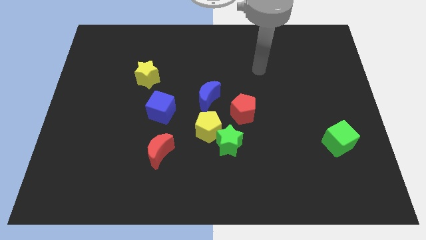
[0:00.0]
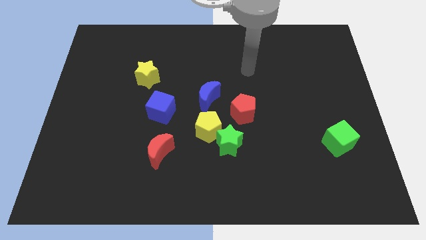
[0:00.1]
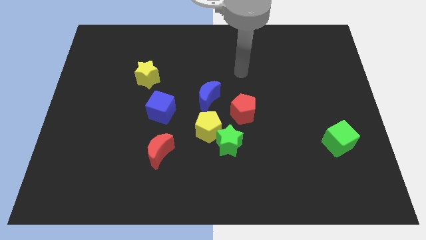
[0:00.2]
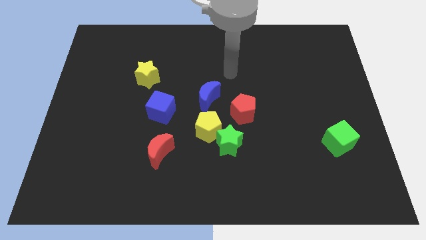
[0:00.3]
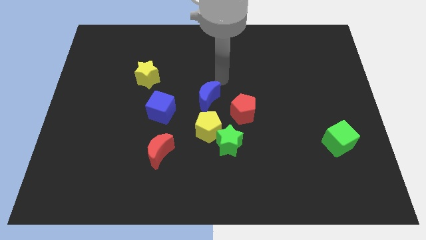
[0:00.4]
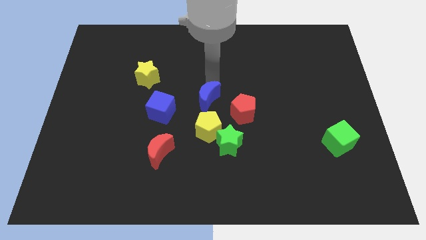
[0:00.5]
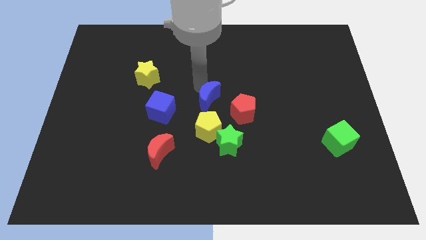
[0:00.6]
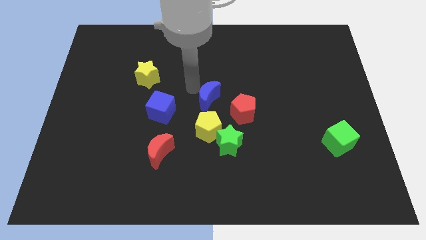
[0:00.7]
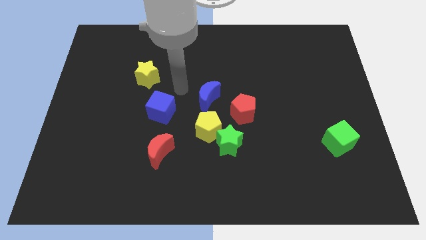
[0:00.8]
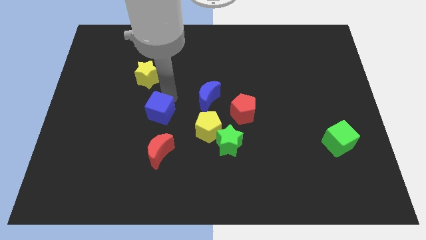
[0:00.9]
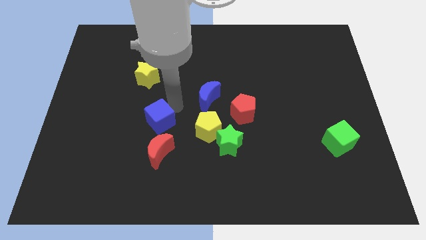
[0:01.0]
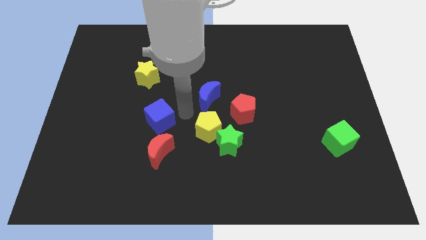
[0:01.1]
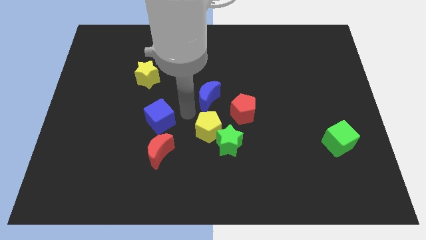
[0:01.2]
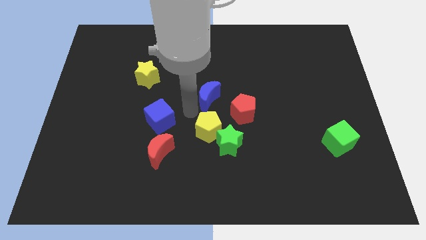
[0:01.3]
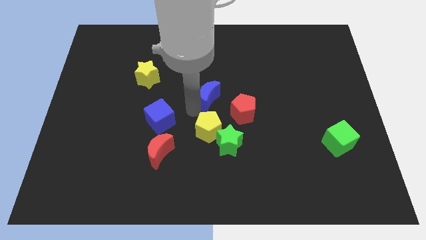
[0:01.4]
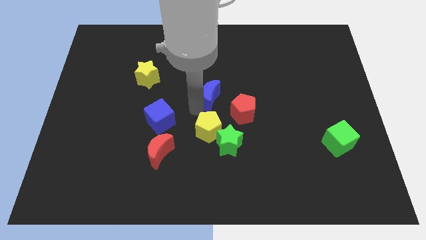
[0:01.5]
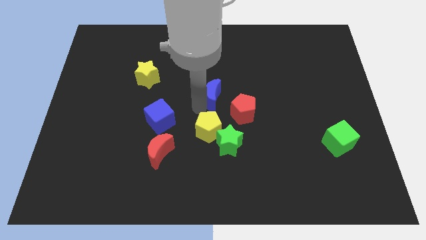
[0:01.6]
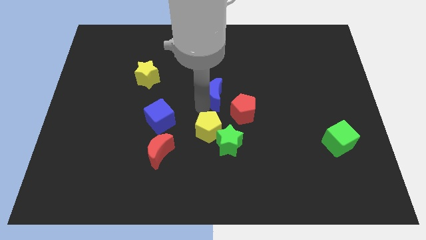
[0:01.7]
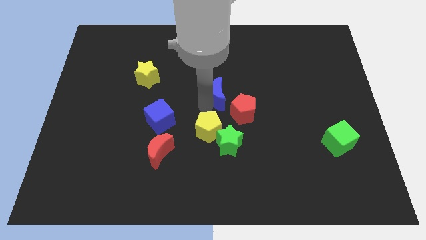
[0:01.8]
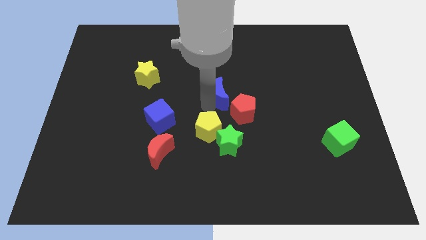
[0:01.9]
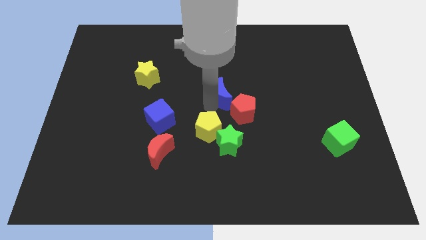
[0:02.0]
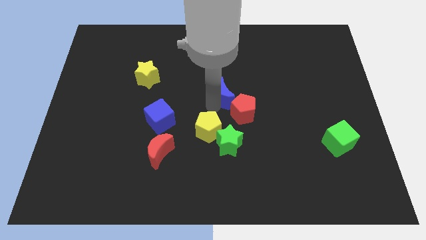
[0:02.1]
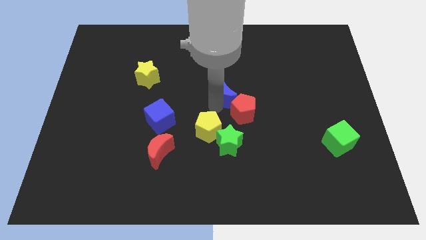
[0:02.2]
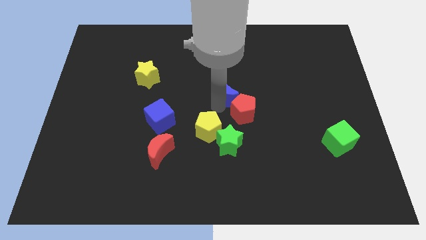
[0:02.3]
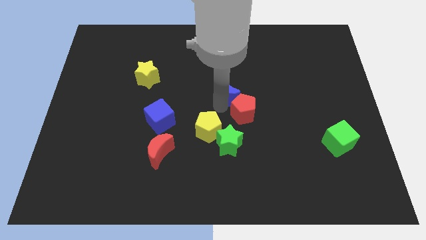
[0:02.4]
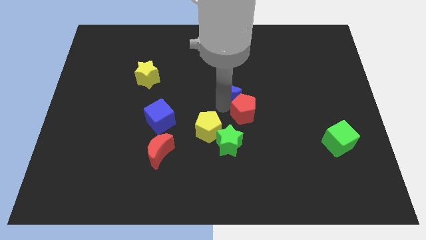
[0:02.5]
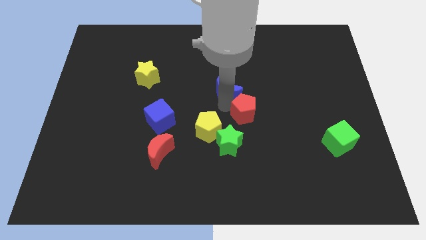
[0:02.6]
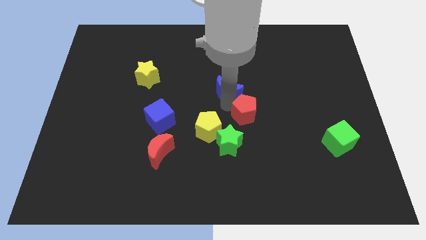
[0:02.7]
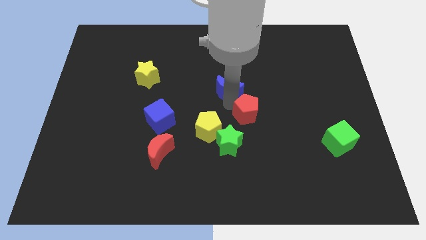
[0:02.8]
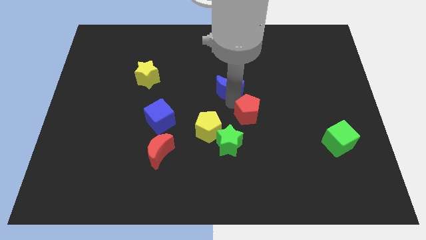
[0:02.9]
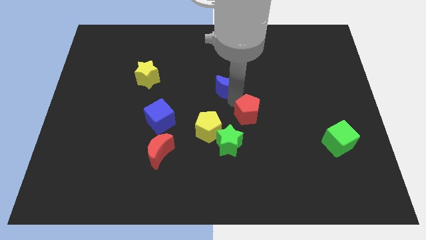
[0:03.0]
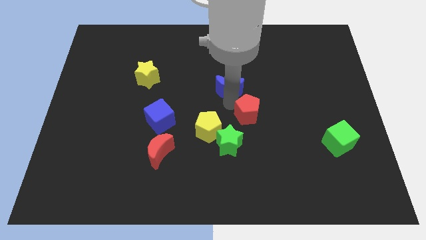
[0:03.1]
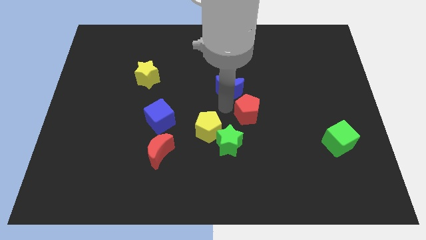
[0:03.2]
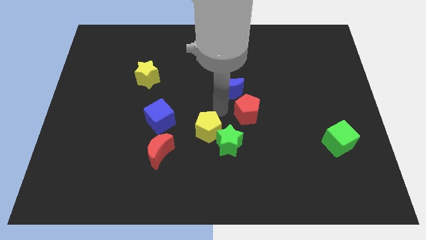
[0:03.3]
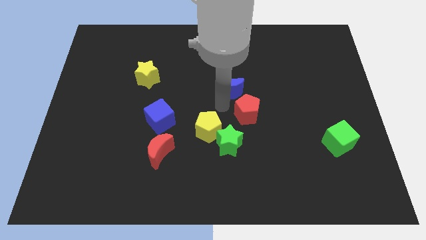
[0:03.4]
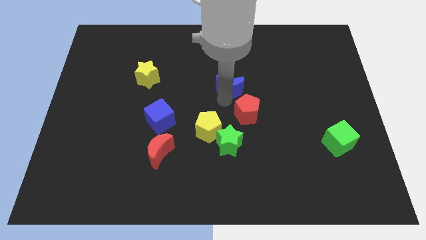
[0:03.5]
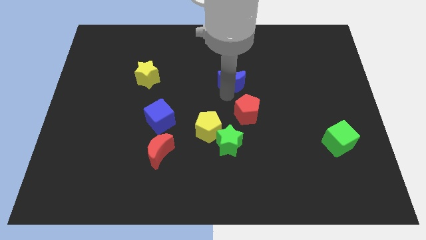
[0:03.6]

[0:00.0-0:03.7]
move the blue moon a little up and to the right

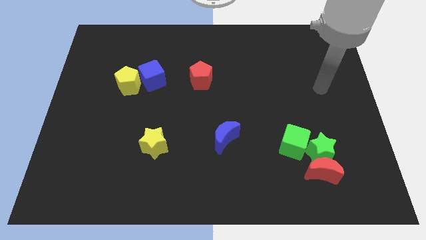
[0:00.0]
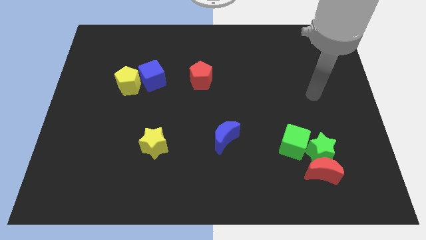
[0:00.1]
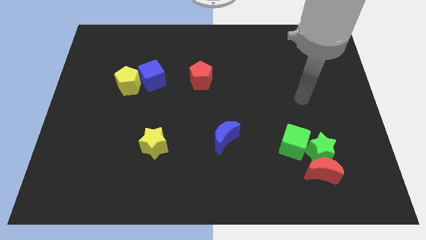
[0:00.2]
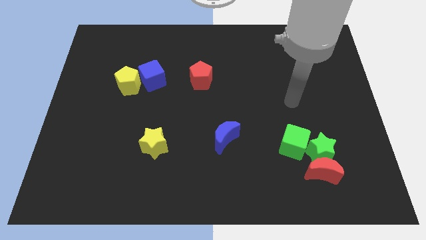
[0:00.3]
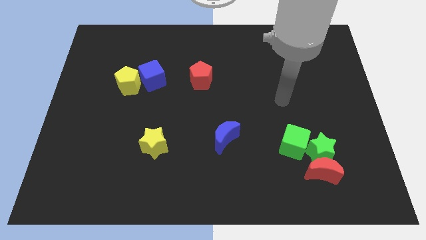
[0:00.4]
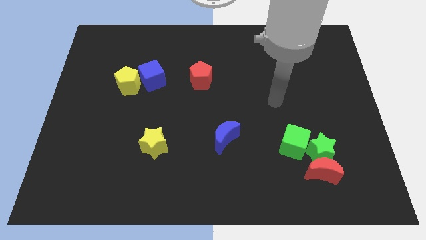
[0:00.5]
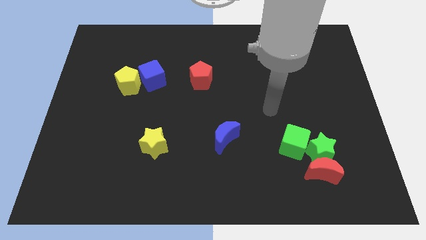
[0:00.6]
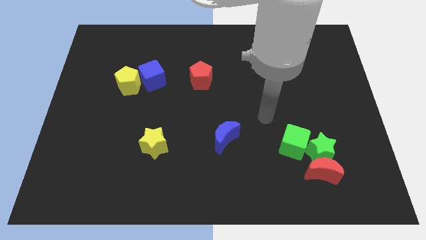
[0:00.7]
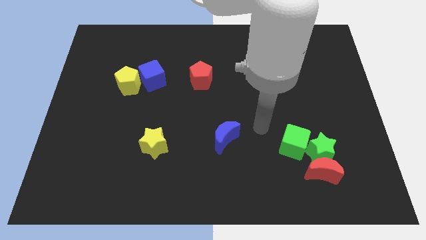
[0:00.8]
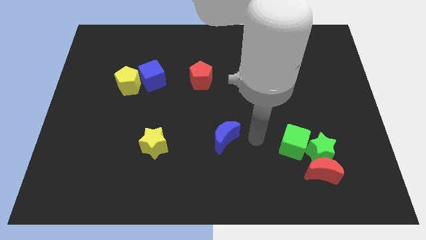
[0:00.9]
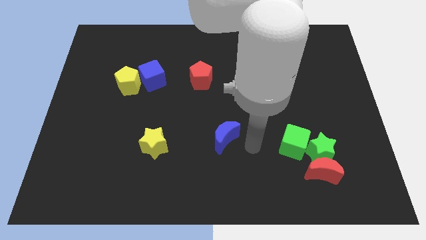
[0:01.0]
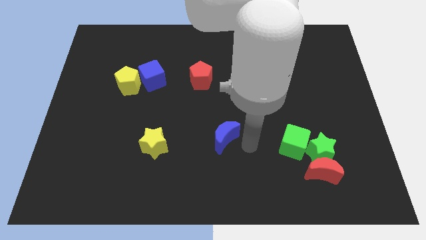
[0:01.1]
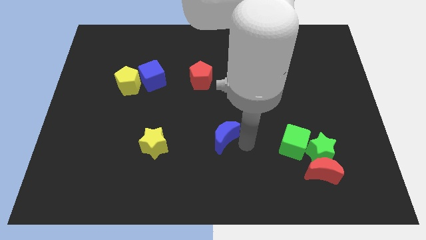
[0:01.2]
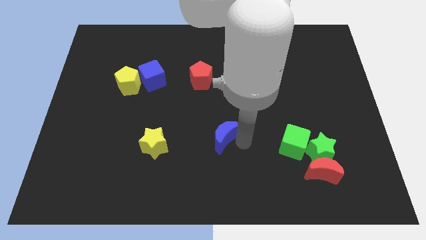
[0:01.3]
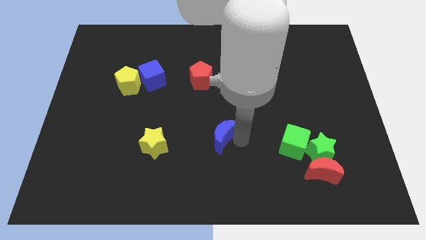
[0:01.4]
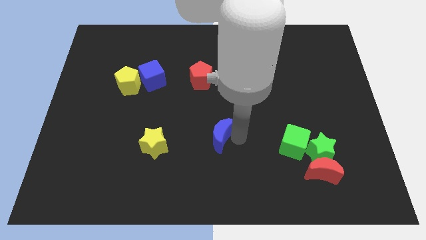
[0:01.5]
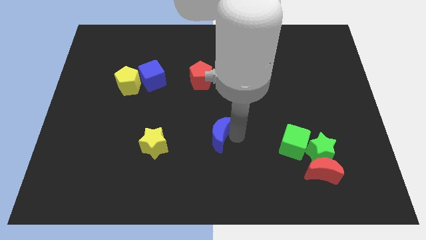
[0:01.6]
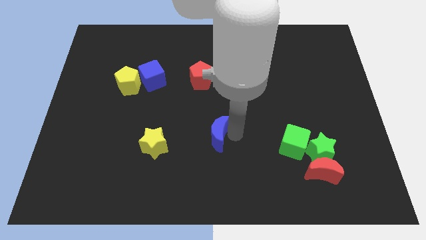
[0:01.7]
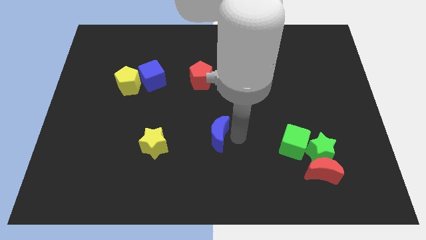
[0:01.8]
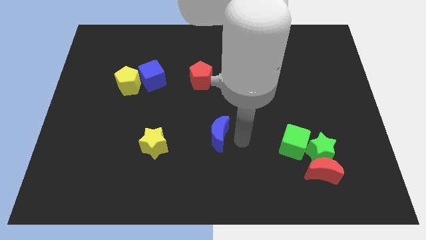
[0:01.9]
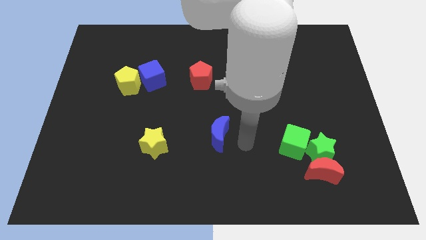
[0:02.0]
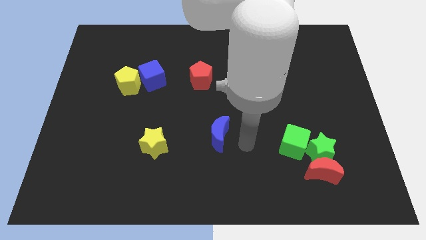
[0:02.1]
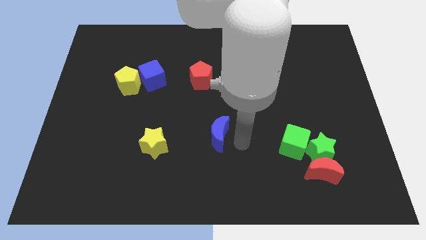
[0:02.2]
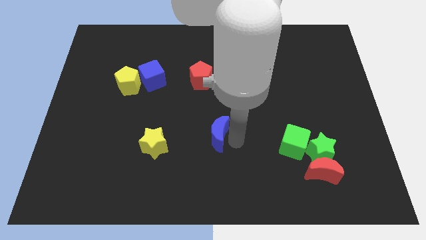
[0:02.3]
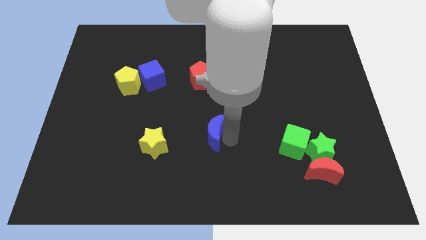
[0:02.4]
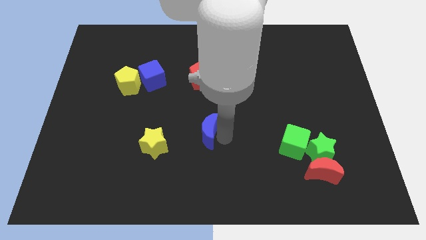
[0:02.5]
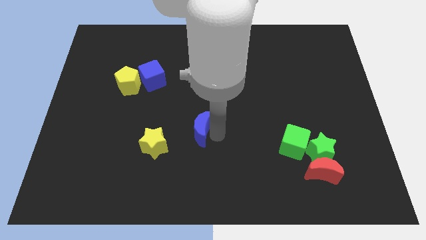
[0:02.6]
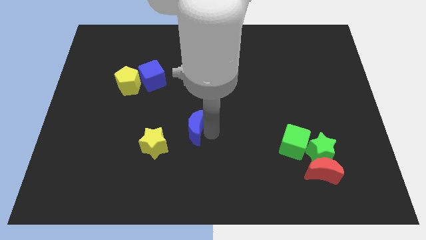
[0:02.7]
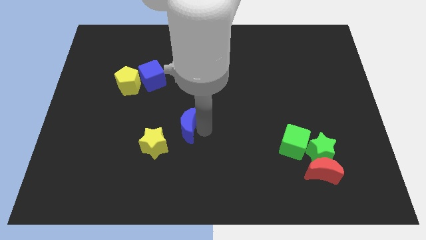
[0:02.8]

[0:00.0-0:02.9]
push the blue moon somewhat to the left

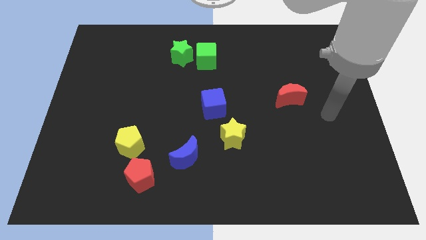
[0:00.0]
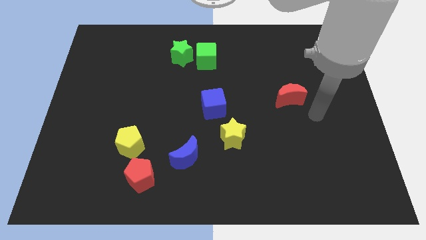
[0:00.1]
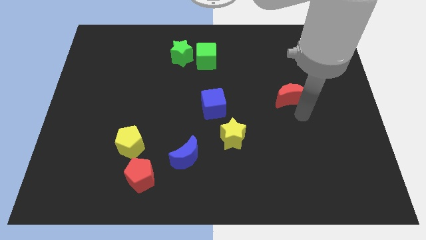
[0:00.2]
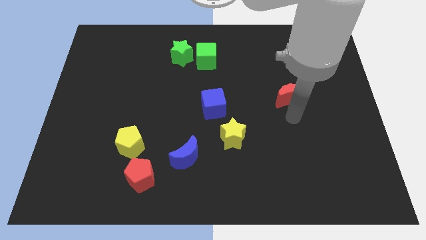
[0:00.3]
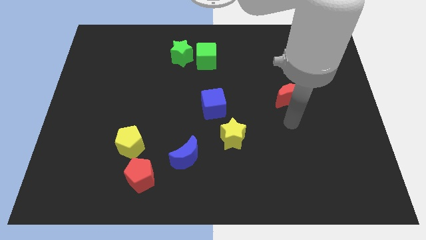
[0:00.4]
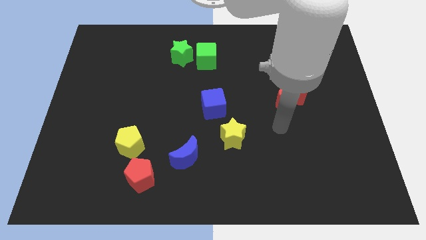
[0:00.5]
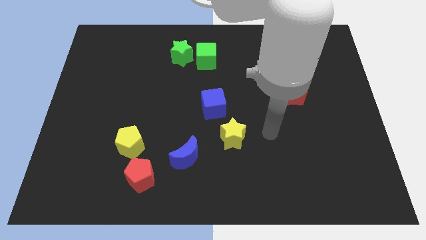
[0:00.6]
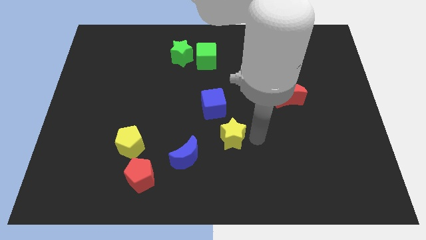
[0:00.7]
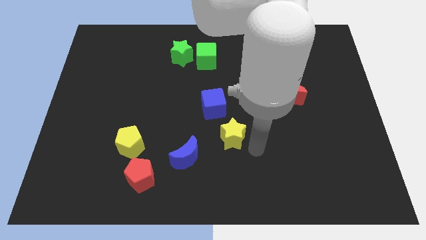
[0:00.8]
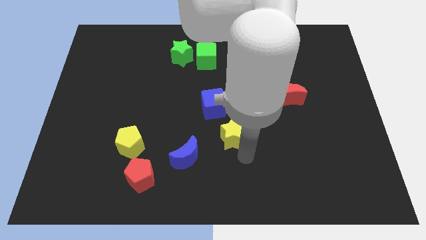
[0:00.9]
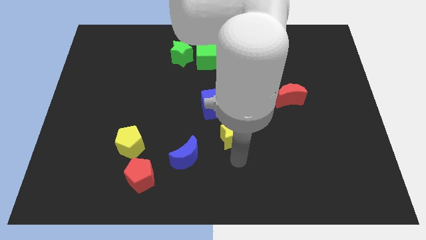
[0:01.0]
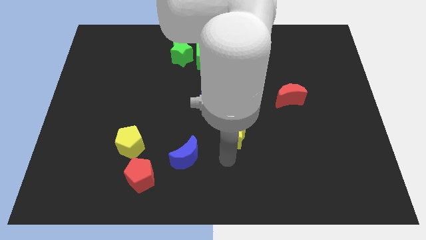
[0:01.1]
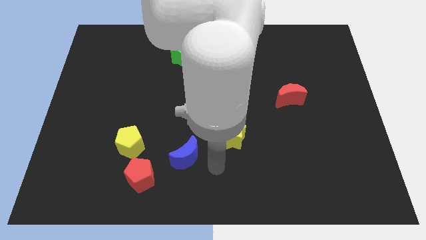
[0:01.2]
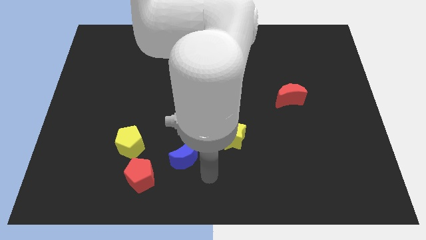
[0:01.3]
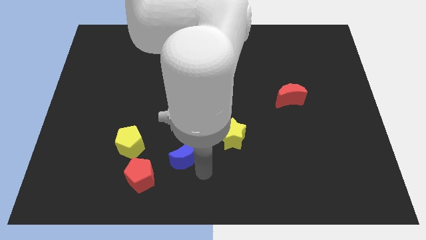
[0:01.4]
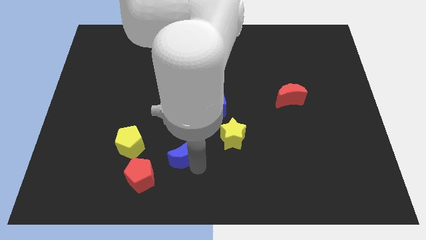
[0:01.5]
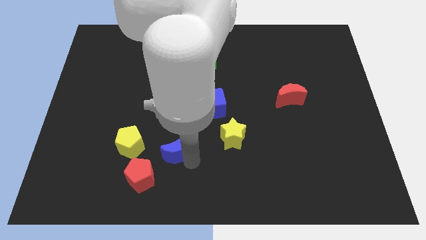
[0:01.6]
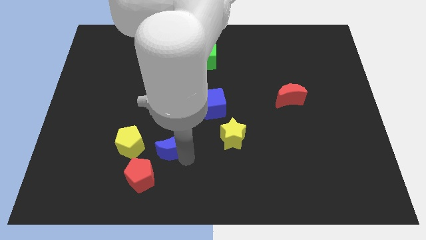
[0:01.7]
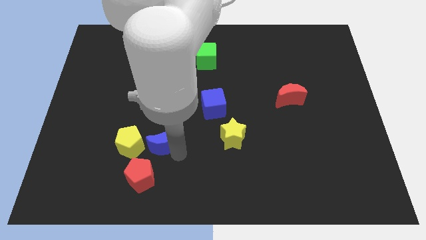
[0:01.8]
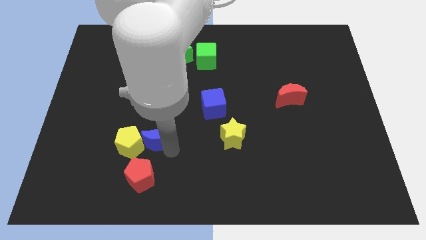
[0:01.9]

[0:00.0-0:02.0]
slightly push the blue moon upwards and to the left diagonally
